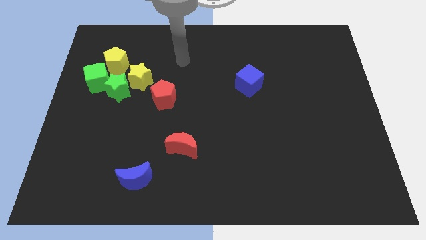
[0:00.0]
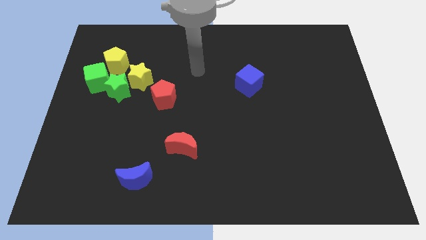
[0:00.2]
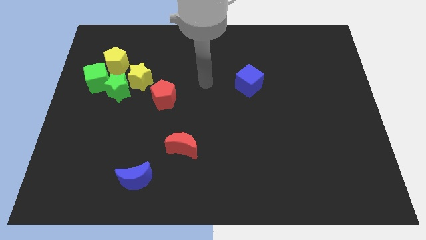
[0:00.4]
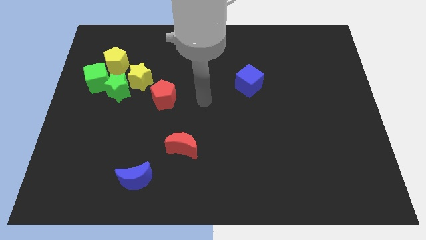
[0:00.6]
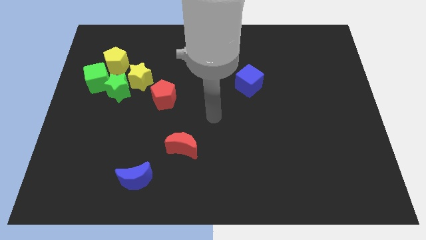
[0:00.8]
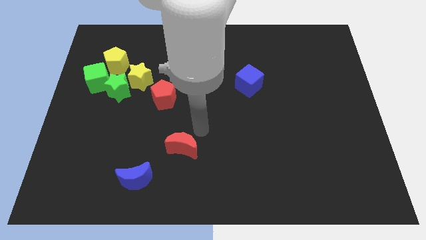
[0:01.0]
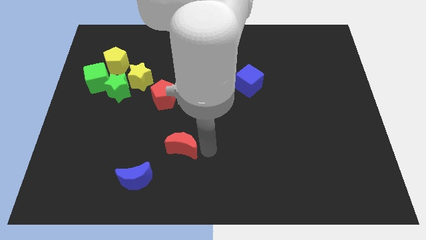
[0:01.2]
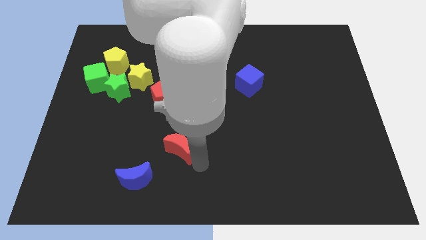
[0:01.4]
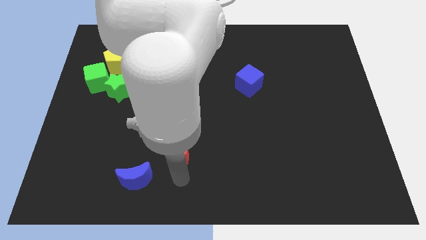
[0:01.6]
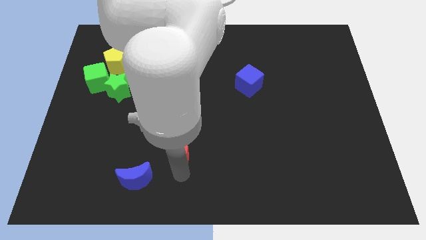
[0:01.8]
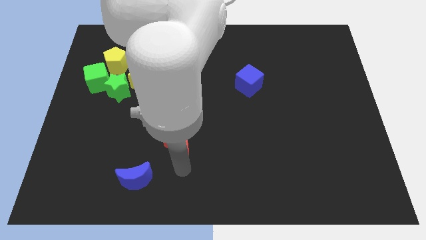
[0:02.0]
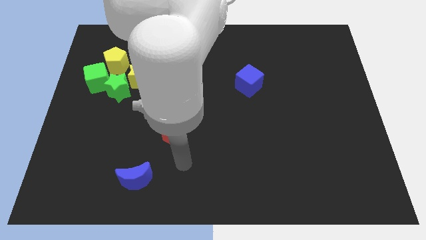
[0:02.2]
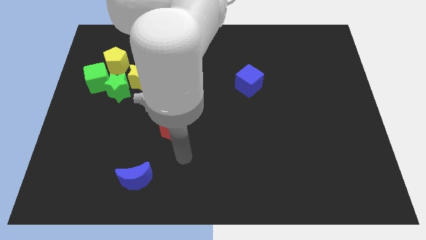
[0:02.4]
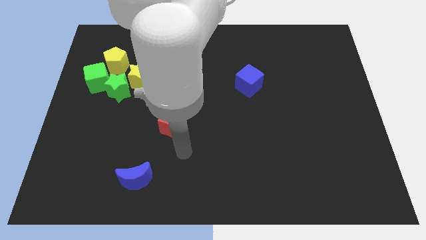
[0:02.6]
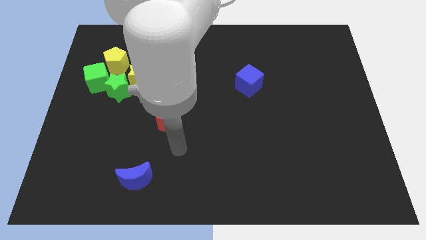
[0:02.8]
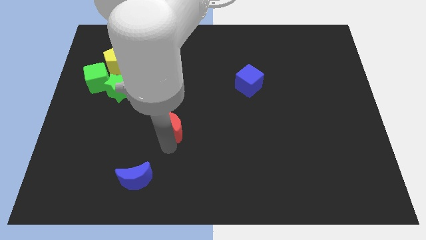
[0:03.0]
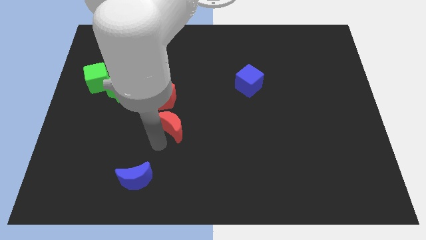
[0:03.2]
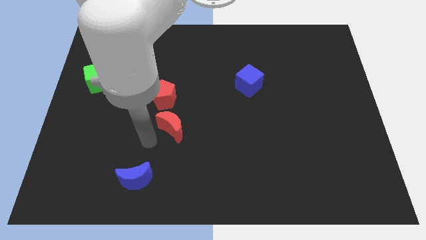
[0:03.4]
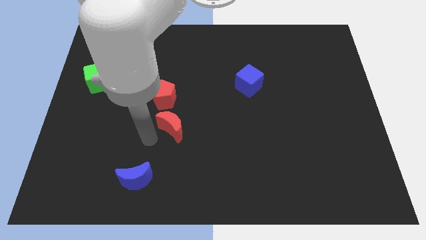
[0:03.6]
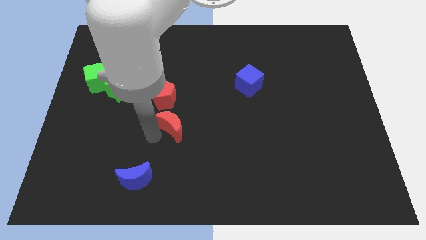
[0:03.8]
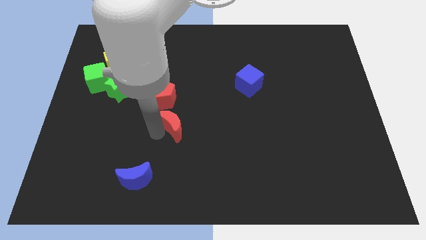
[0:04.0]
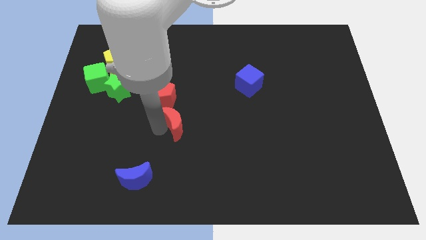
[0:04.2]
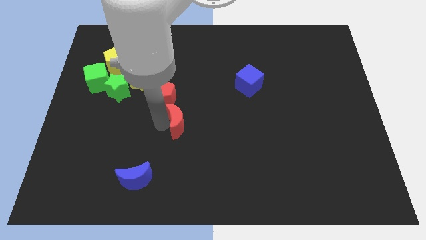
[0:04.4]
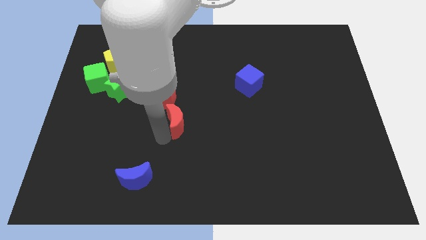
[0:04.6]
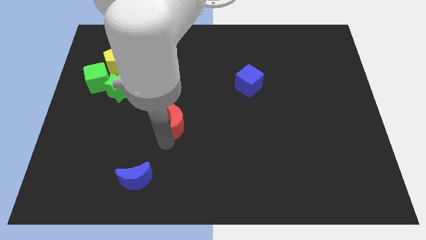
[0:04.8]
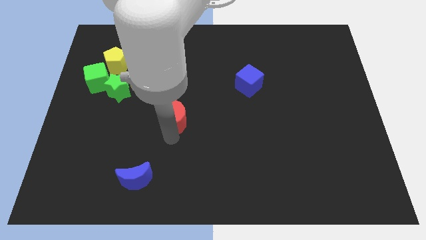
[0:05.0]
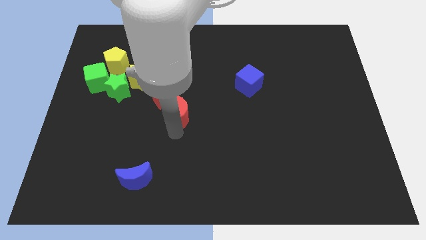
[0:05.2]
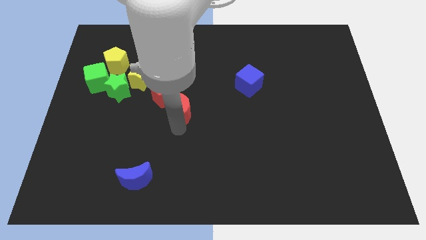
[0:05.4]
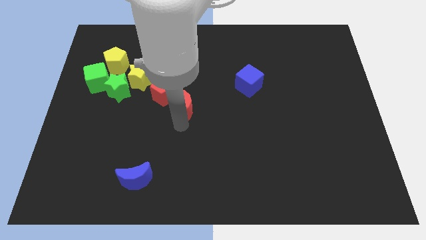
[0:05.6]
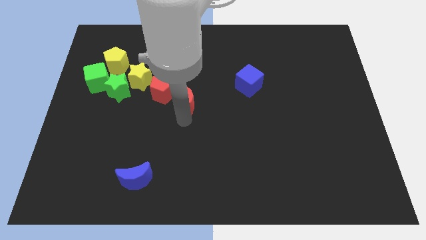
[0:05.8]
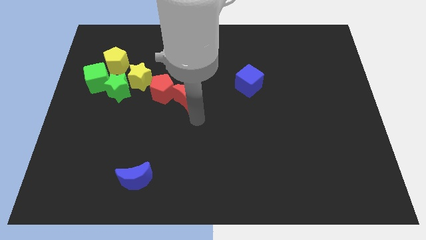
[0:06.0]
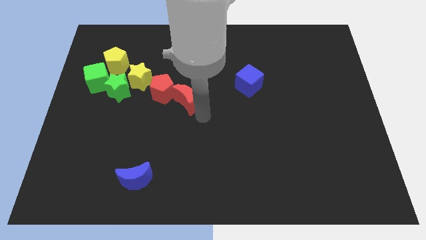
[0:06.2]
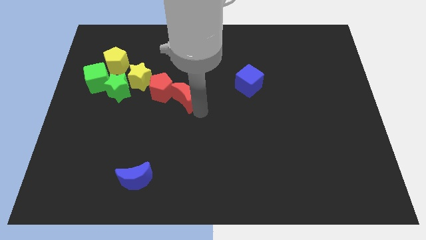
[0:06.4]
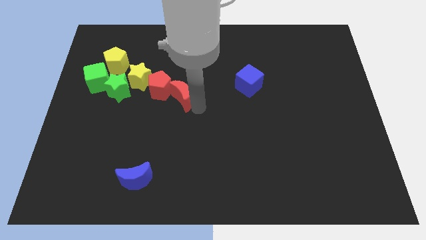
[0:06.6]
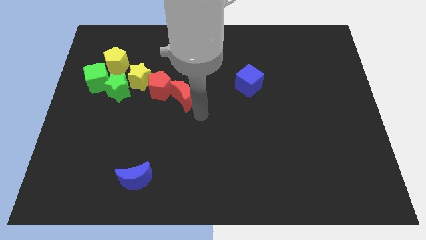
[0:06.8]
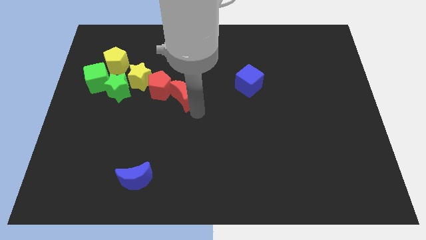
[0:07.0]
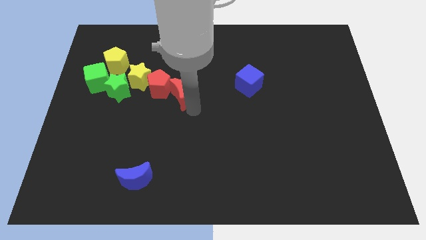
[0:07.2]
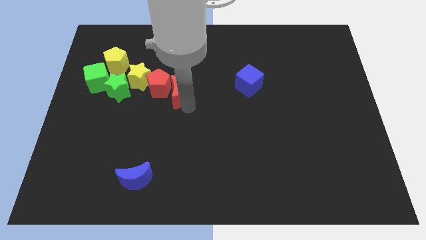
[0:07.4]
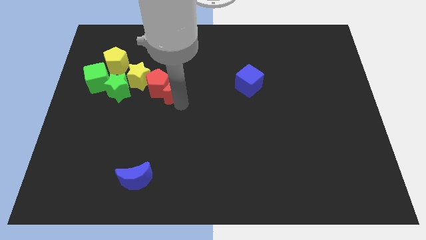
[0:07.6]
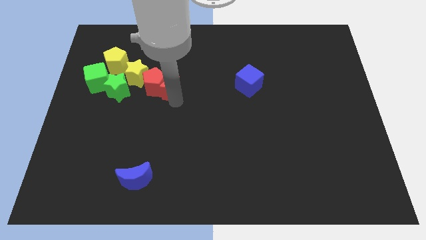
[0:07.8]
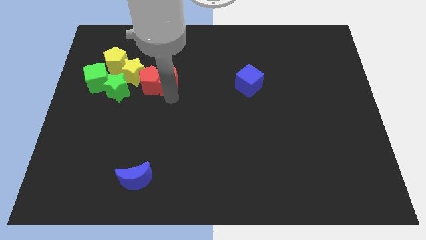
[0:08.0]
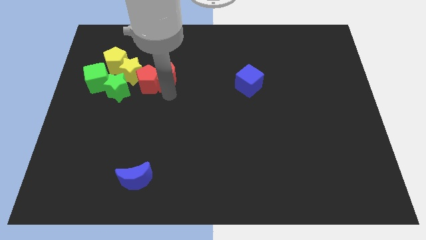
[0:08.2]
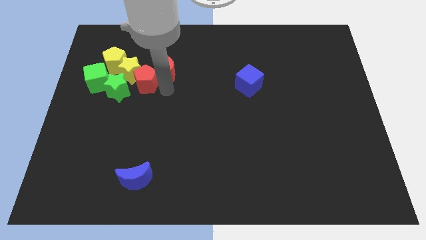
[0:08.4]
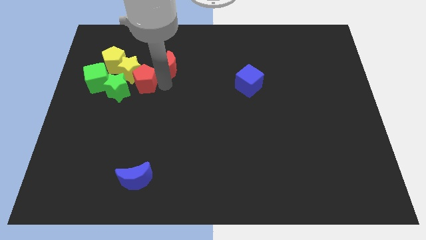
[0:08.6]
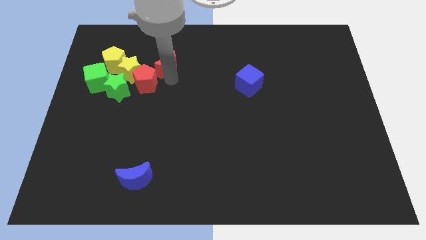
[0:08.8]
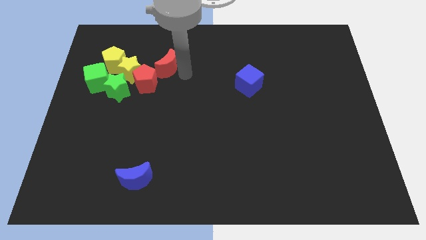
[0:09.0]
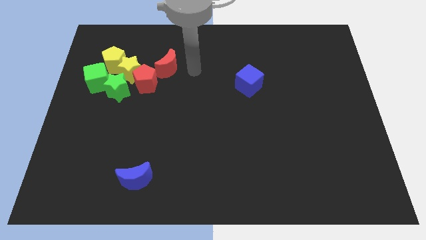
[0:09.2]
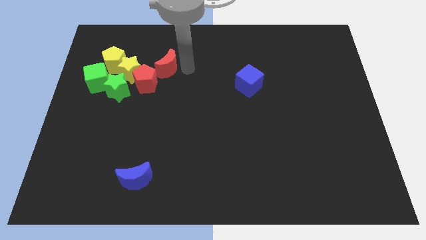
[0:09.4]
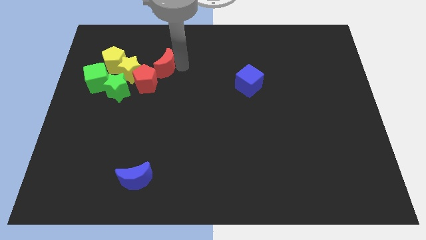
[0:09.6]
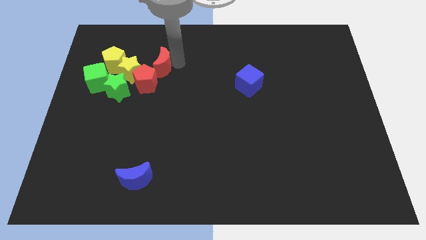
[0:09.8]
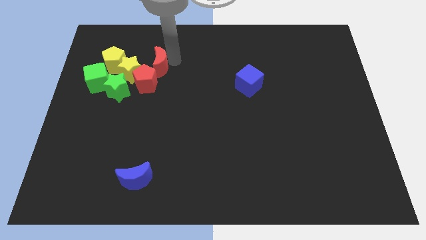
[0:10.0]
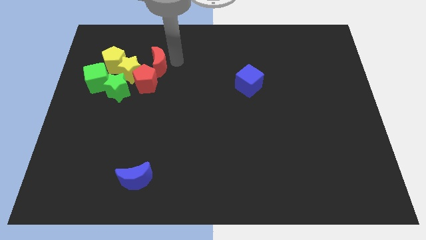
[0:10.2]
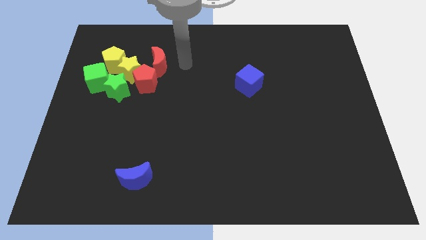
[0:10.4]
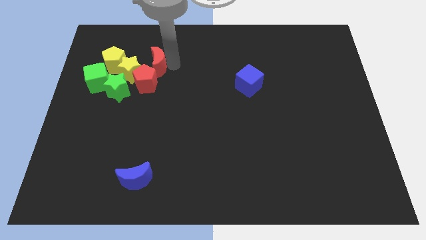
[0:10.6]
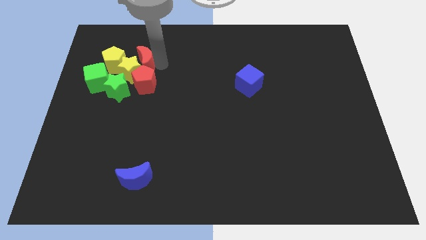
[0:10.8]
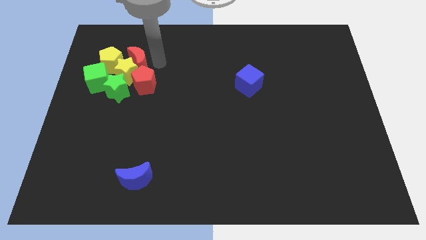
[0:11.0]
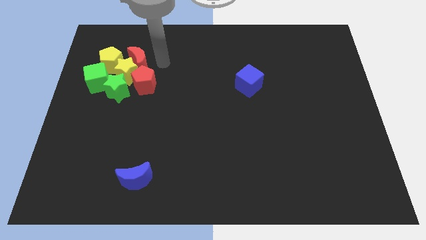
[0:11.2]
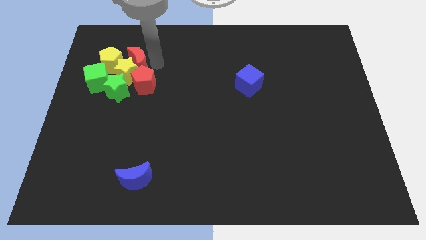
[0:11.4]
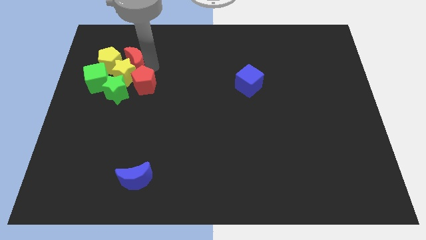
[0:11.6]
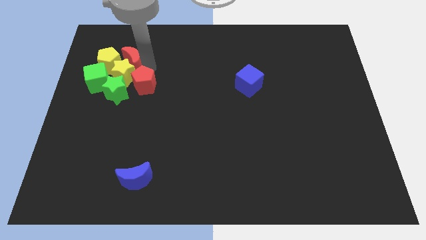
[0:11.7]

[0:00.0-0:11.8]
put the red moon close to the yellow pentagon

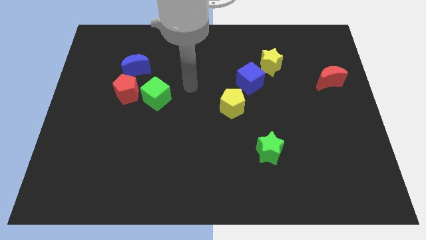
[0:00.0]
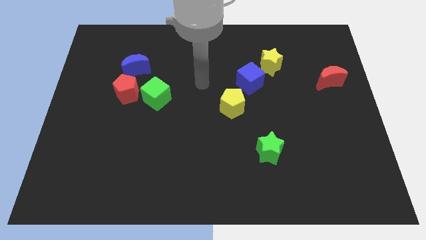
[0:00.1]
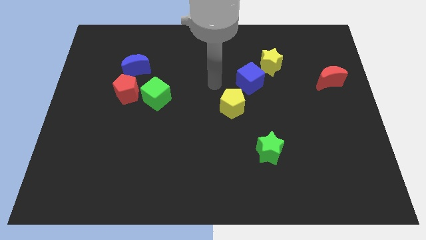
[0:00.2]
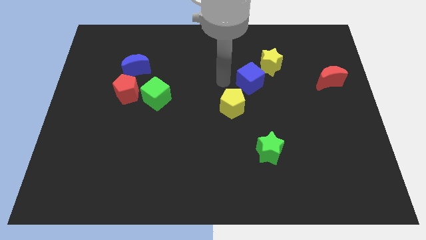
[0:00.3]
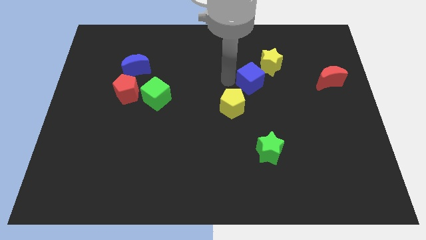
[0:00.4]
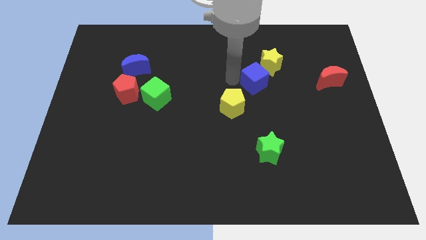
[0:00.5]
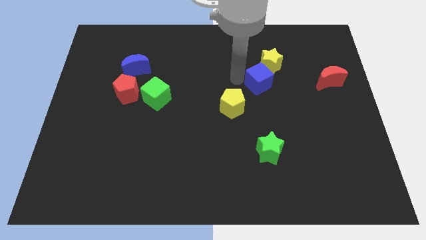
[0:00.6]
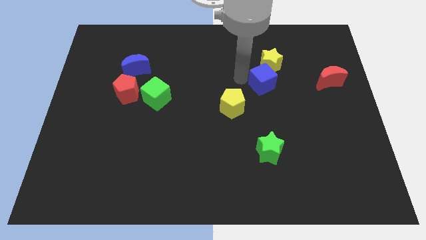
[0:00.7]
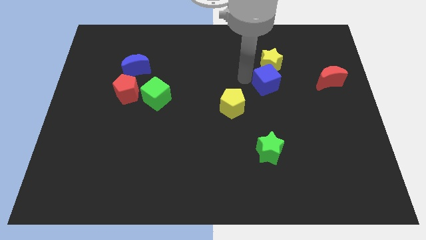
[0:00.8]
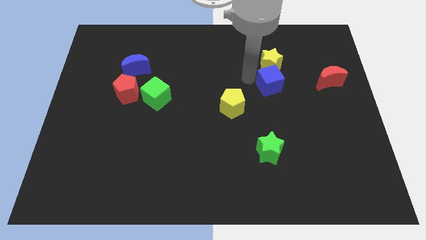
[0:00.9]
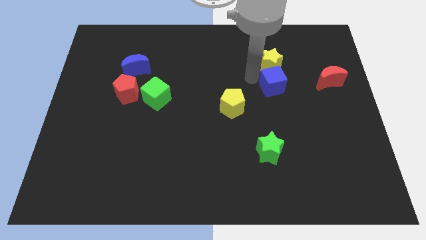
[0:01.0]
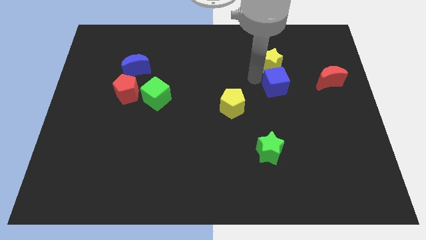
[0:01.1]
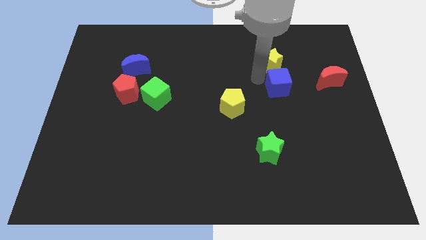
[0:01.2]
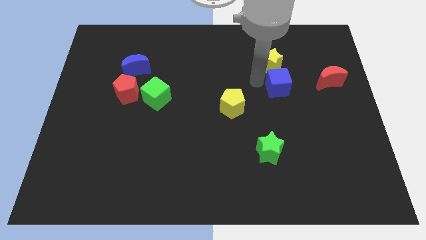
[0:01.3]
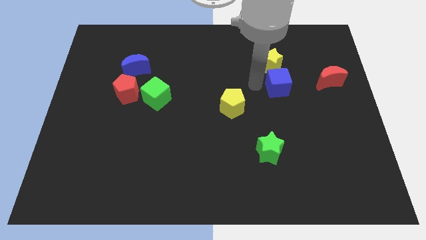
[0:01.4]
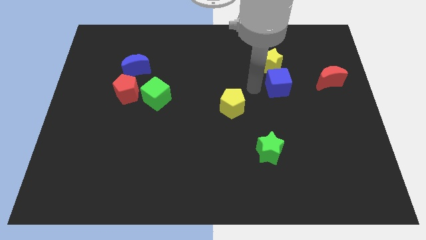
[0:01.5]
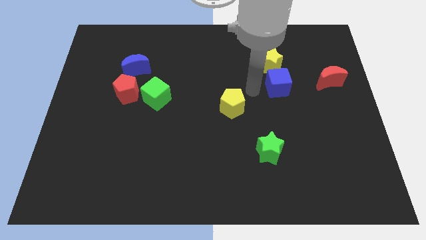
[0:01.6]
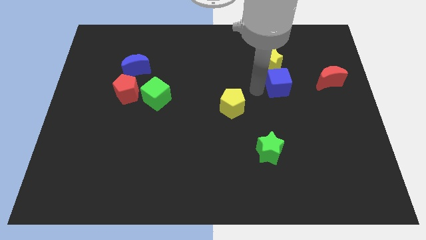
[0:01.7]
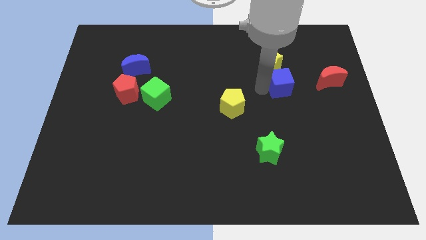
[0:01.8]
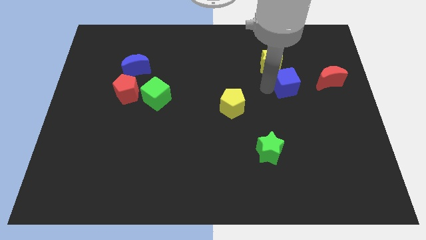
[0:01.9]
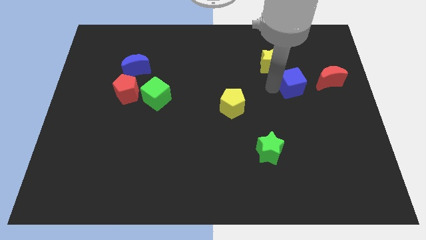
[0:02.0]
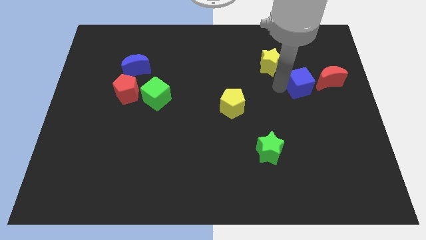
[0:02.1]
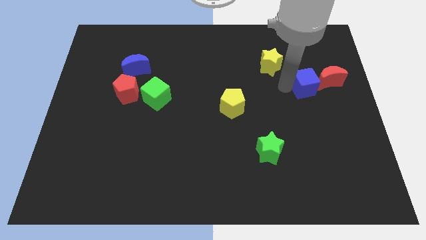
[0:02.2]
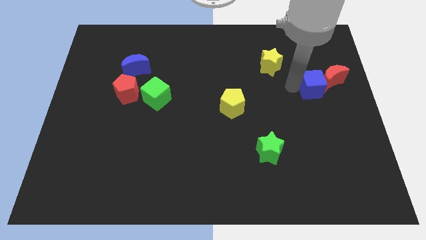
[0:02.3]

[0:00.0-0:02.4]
put the blue cube towards the red moon
